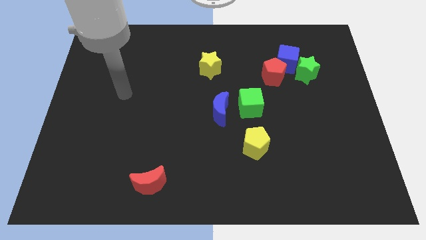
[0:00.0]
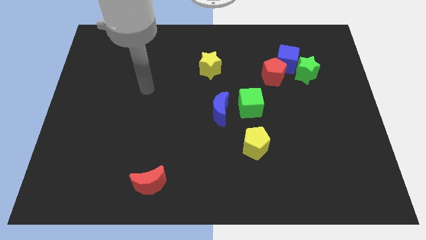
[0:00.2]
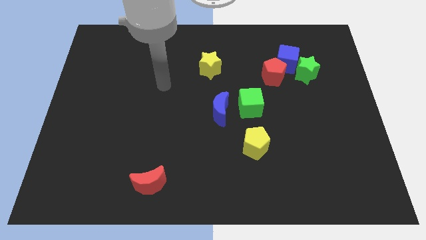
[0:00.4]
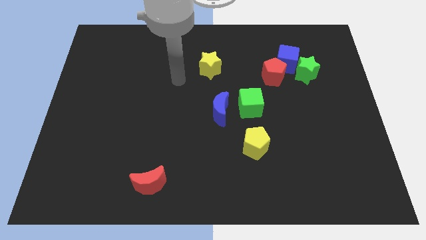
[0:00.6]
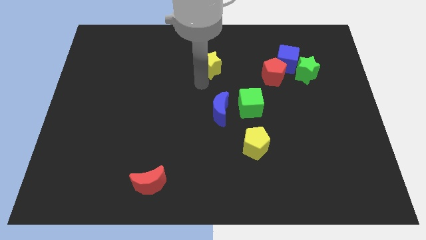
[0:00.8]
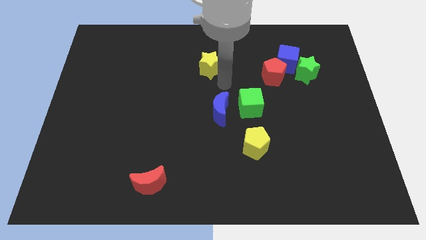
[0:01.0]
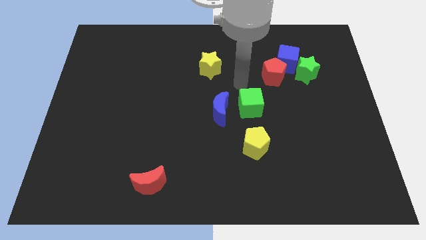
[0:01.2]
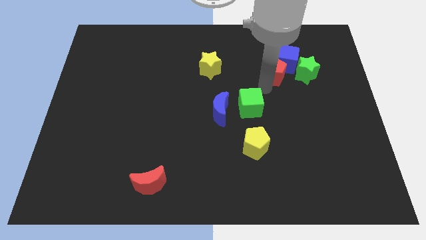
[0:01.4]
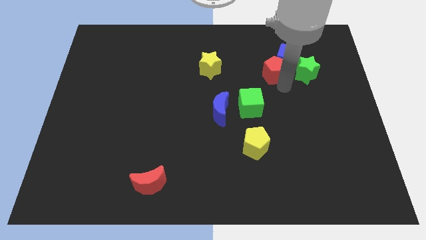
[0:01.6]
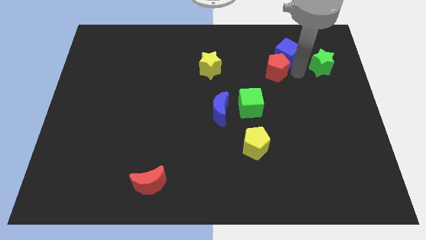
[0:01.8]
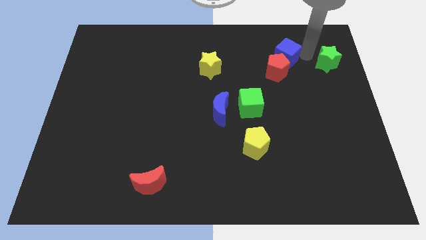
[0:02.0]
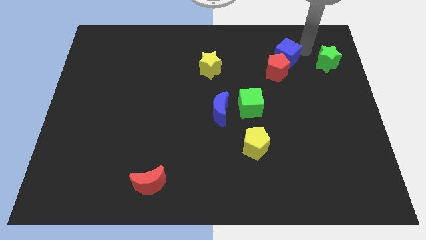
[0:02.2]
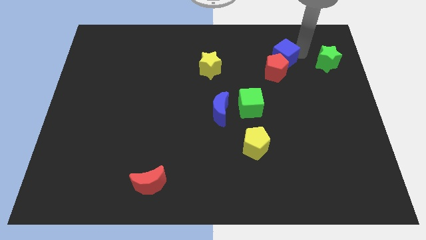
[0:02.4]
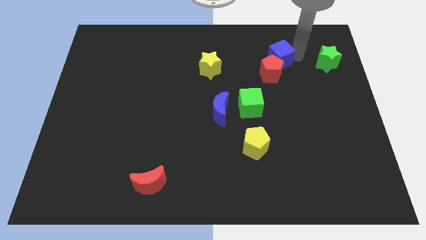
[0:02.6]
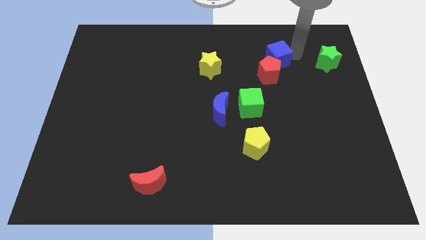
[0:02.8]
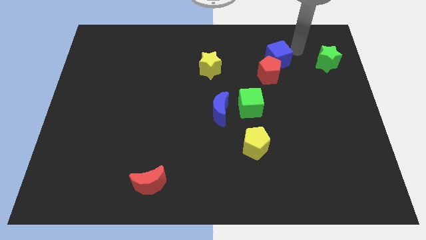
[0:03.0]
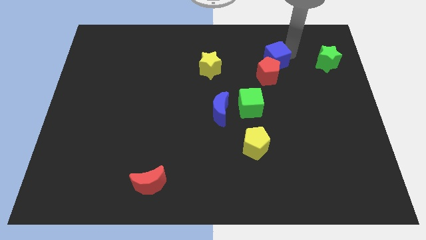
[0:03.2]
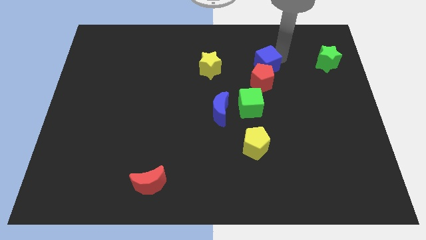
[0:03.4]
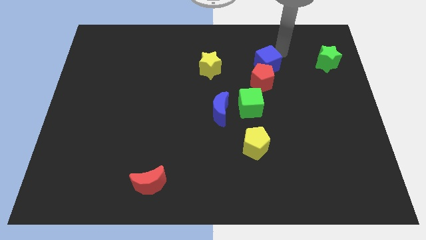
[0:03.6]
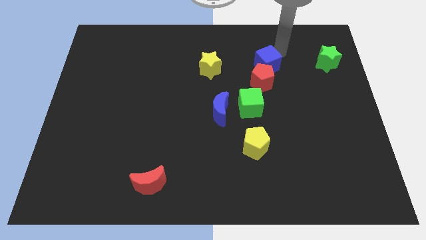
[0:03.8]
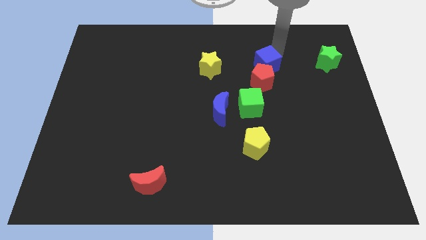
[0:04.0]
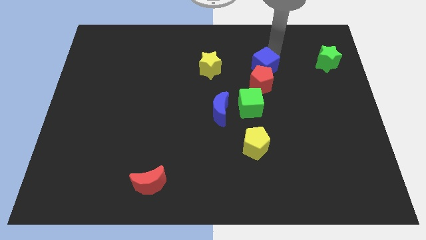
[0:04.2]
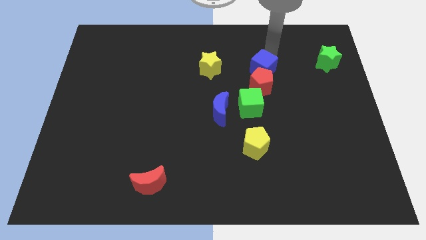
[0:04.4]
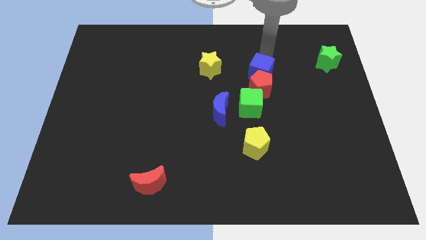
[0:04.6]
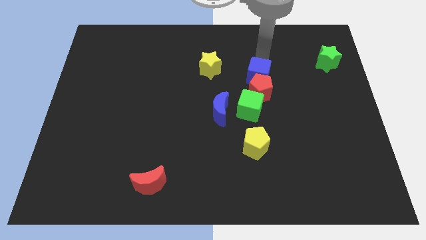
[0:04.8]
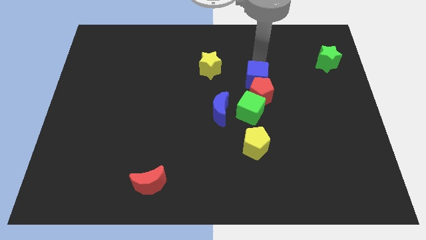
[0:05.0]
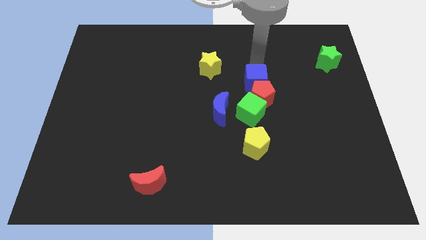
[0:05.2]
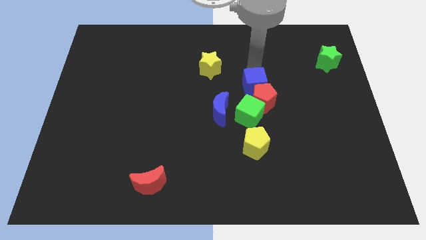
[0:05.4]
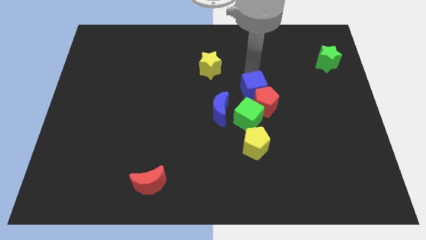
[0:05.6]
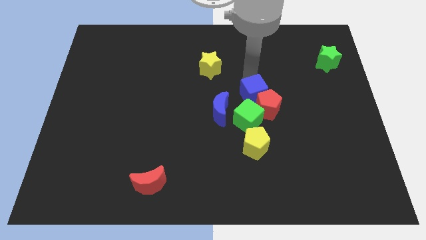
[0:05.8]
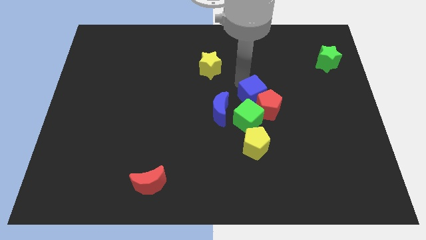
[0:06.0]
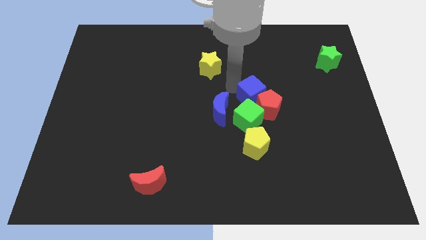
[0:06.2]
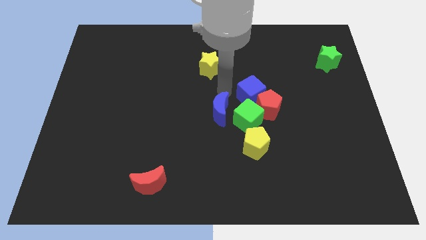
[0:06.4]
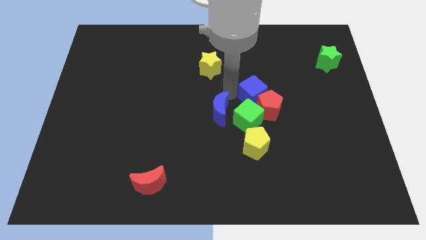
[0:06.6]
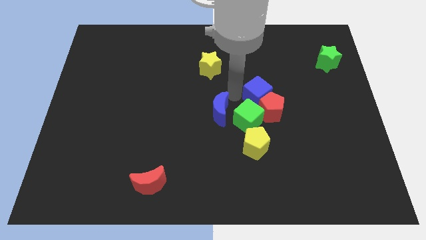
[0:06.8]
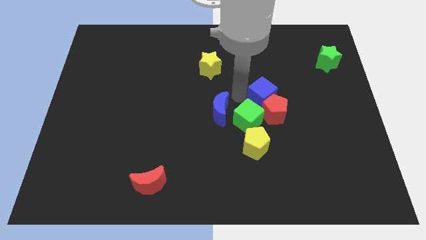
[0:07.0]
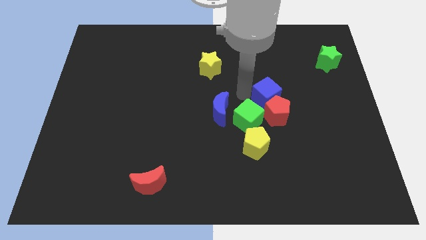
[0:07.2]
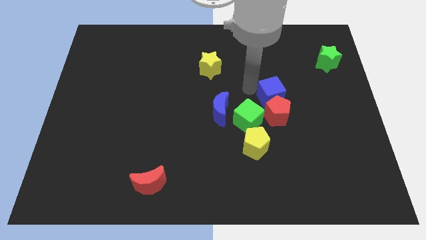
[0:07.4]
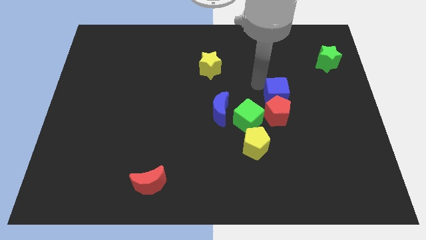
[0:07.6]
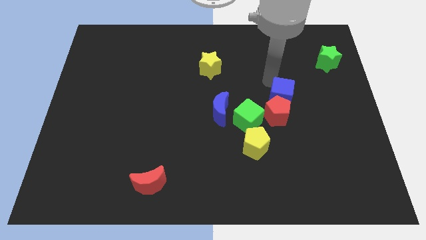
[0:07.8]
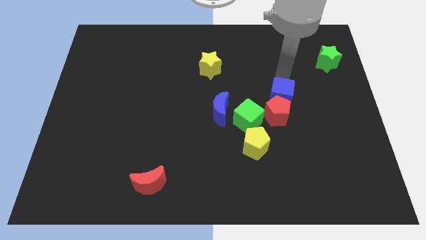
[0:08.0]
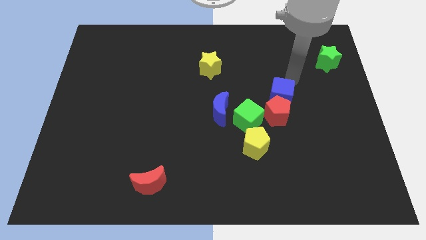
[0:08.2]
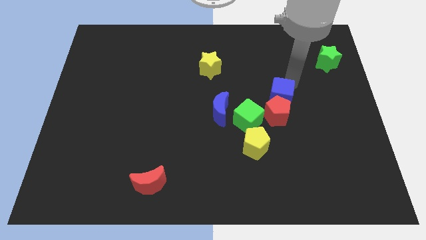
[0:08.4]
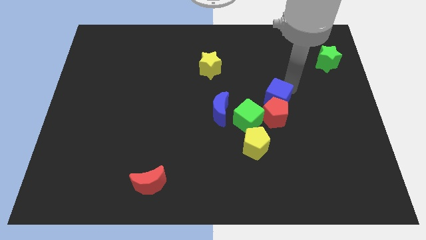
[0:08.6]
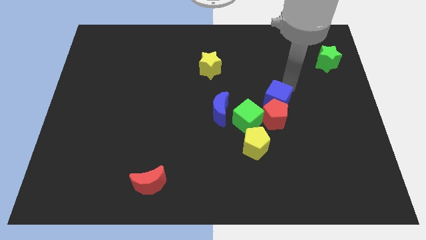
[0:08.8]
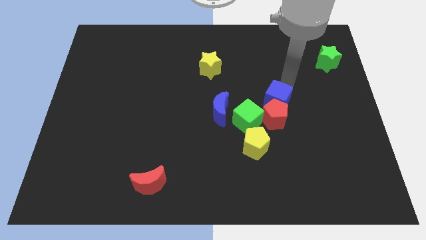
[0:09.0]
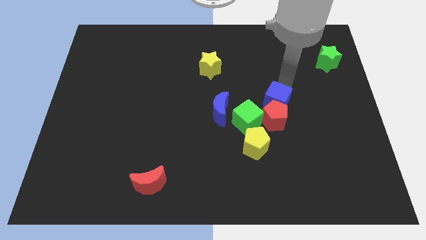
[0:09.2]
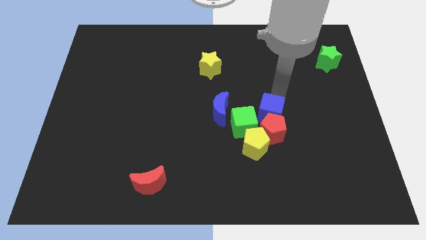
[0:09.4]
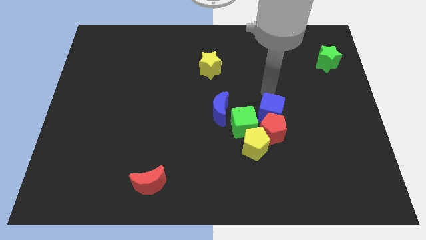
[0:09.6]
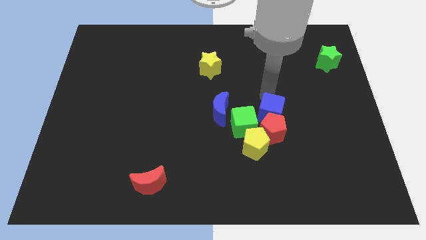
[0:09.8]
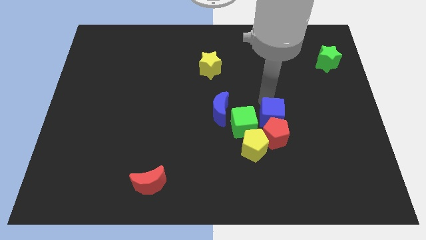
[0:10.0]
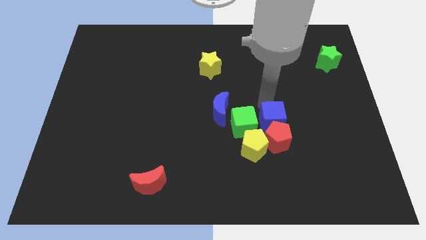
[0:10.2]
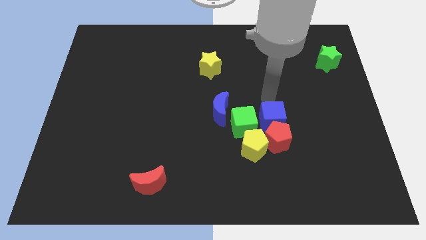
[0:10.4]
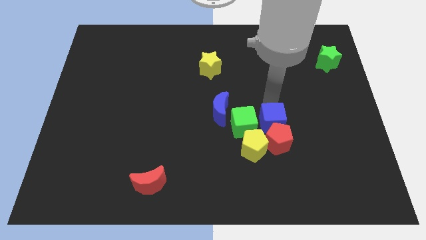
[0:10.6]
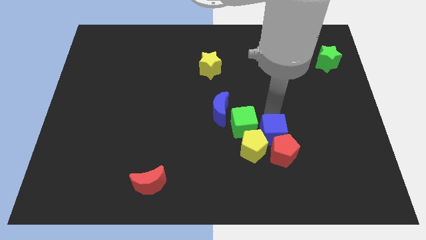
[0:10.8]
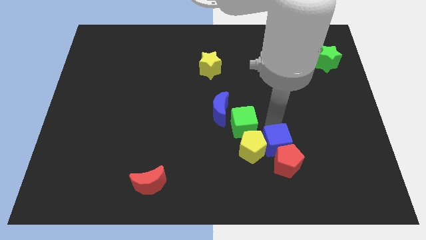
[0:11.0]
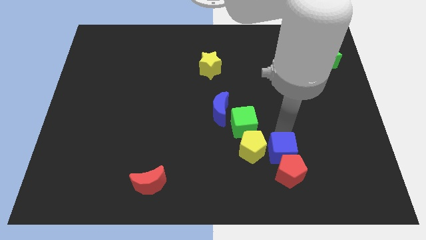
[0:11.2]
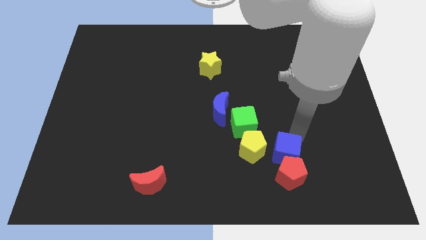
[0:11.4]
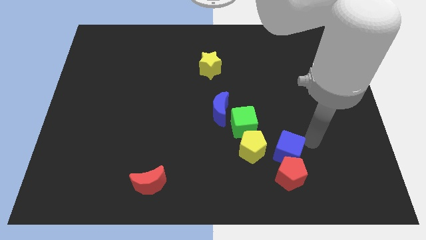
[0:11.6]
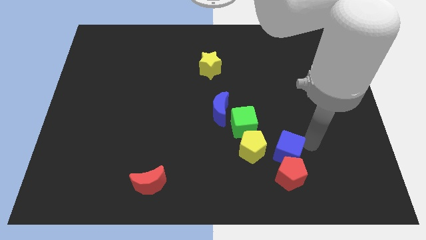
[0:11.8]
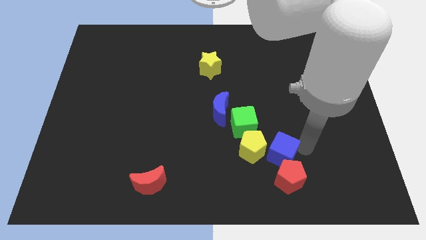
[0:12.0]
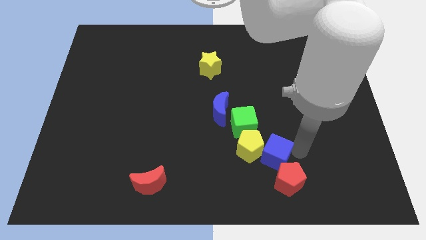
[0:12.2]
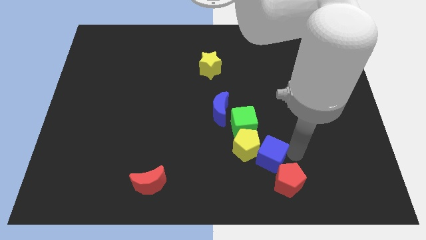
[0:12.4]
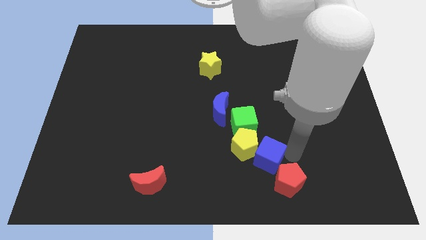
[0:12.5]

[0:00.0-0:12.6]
slide the blue cube to the bottom side of the green cube

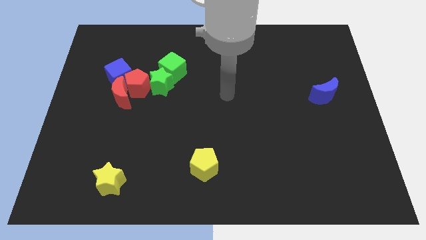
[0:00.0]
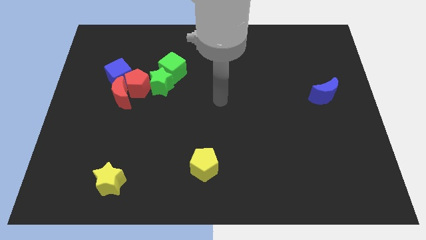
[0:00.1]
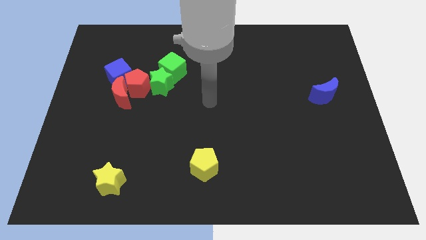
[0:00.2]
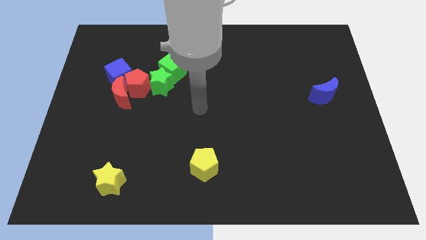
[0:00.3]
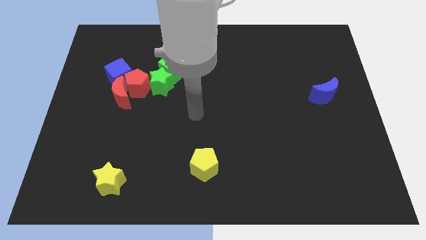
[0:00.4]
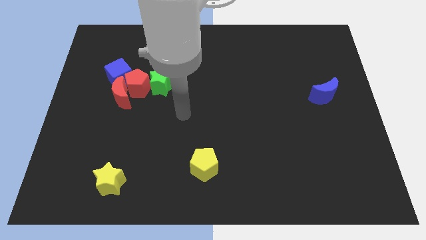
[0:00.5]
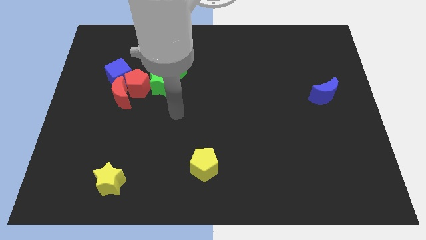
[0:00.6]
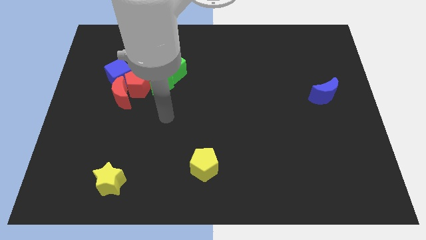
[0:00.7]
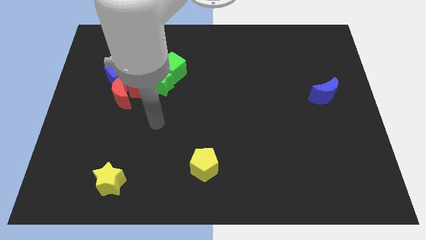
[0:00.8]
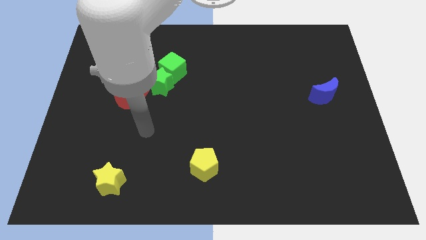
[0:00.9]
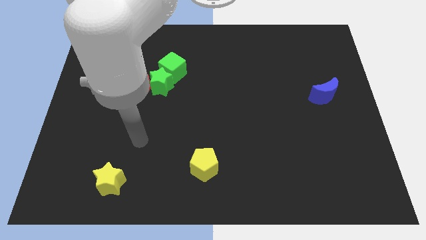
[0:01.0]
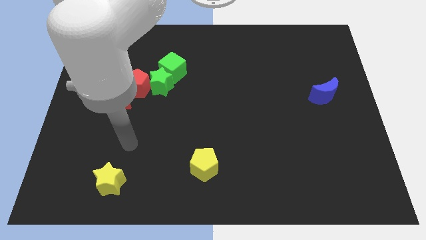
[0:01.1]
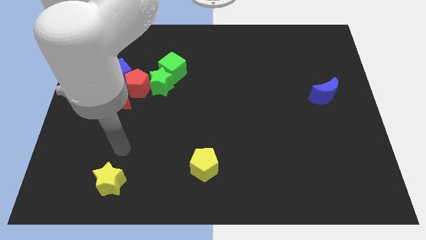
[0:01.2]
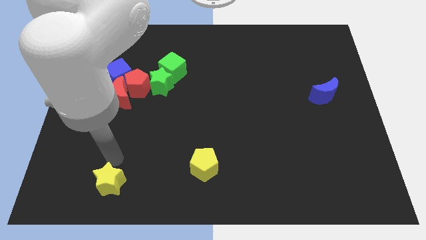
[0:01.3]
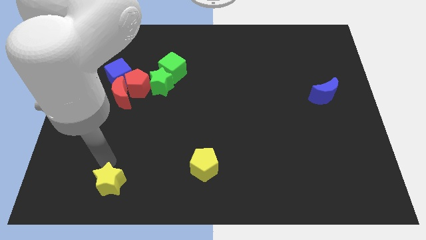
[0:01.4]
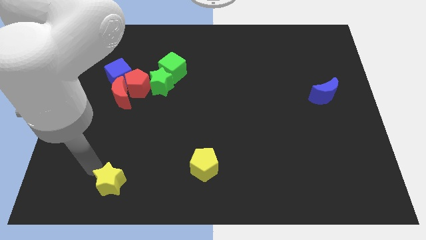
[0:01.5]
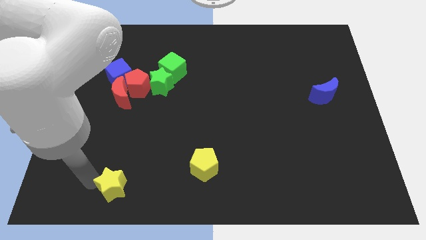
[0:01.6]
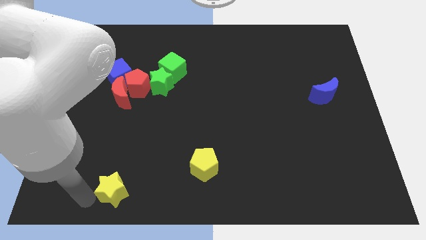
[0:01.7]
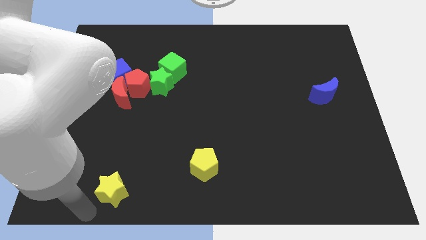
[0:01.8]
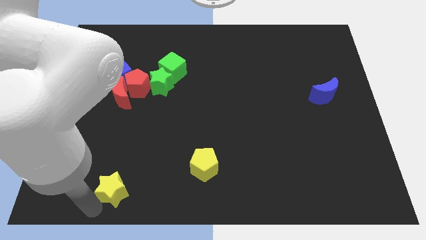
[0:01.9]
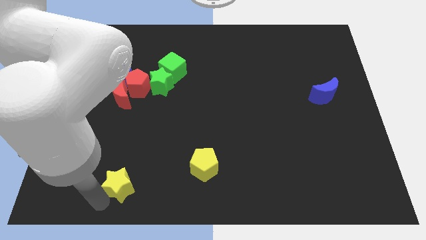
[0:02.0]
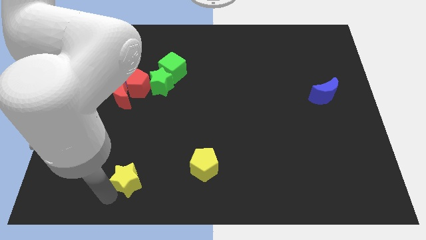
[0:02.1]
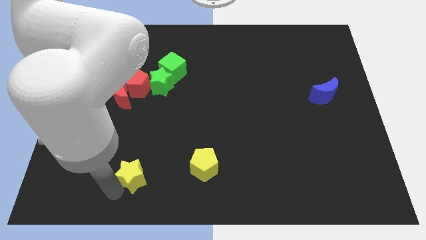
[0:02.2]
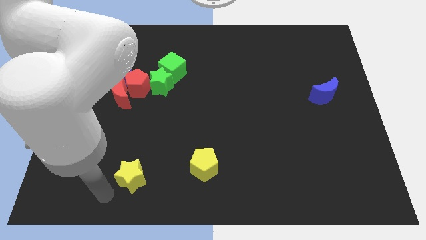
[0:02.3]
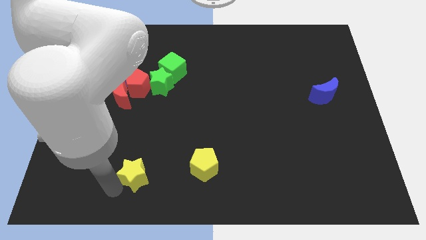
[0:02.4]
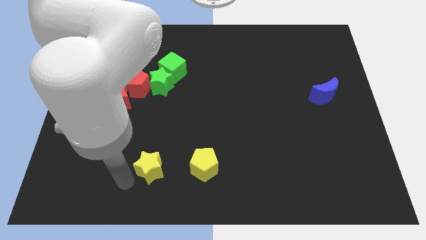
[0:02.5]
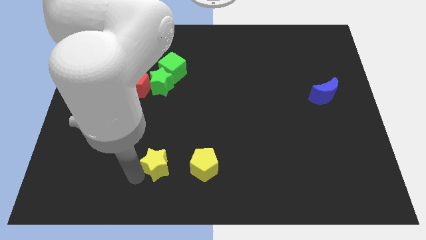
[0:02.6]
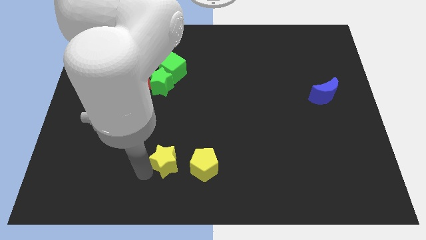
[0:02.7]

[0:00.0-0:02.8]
slide the yellow star to the top left of the yellow pentagon
